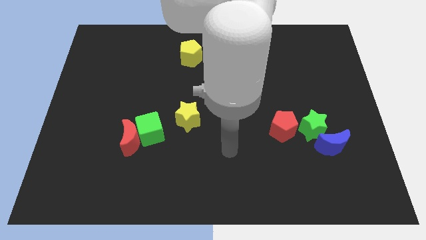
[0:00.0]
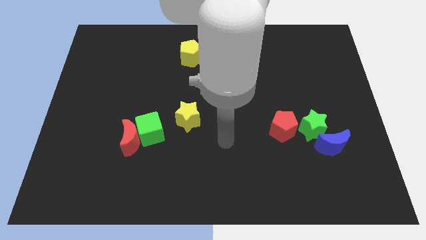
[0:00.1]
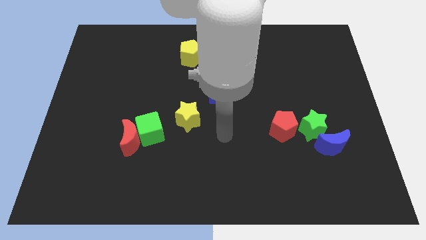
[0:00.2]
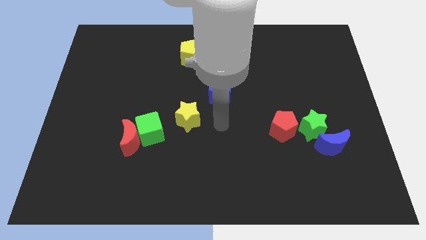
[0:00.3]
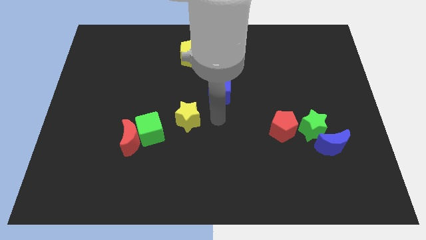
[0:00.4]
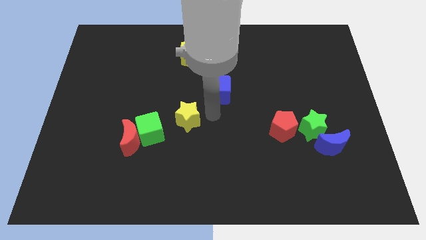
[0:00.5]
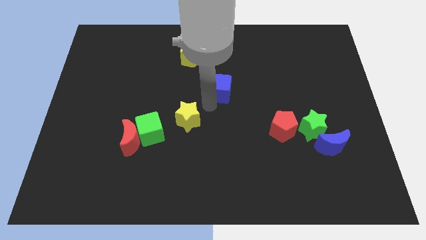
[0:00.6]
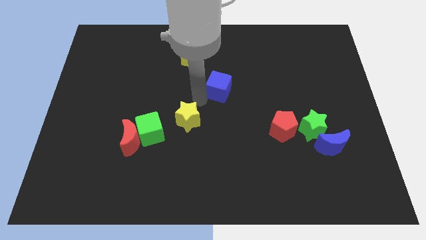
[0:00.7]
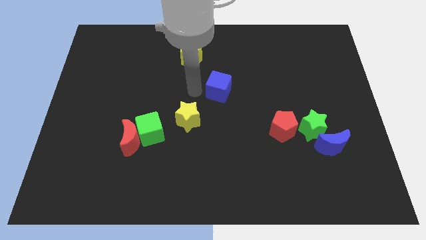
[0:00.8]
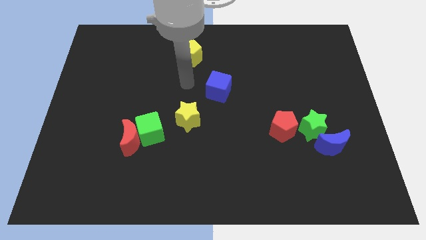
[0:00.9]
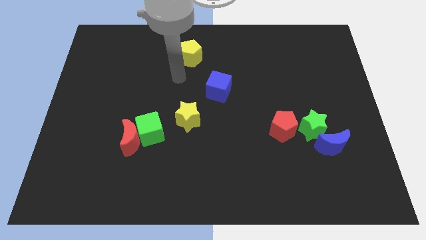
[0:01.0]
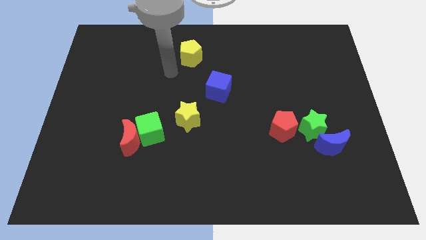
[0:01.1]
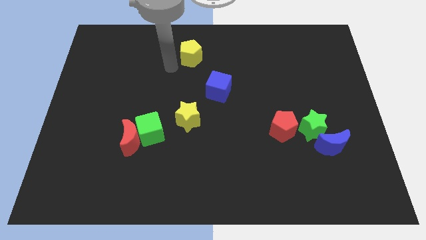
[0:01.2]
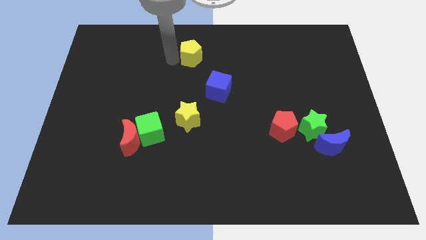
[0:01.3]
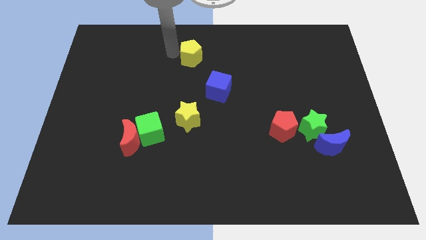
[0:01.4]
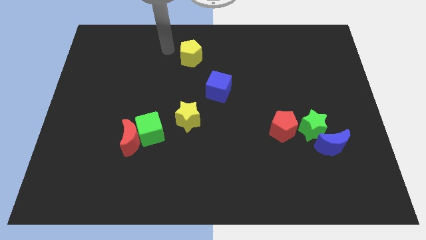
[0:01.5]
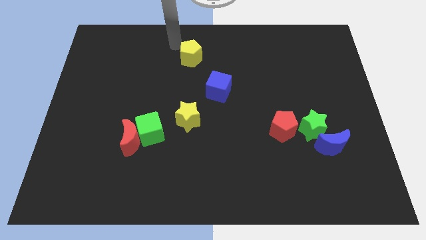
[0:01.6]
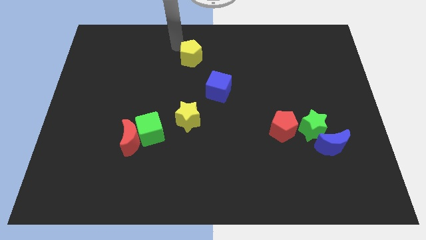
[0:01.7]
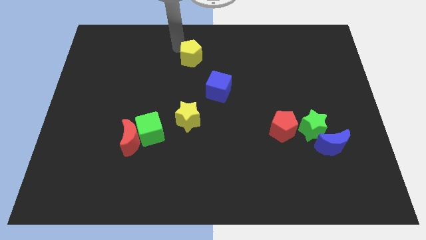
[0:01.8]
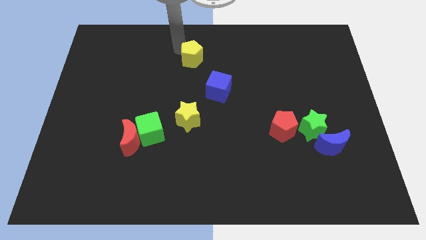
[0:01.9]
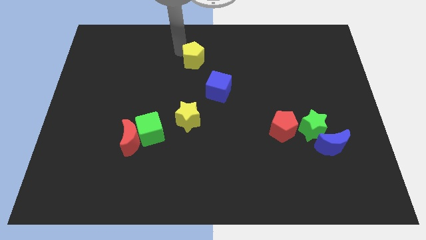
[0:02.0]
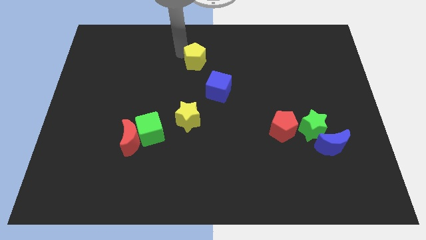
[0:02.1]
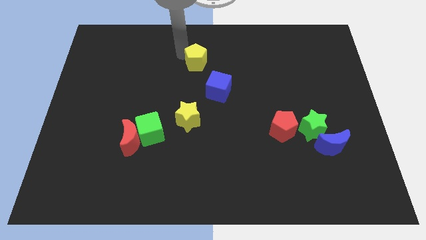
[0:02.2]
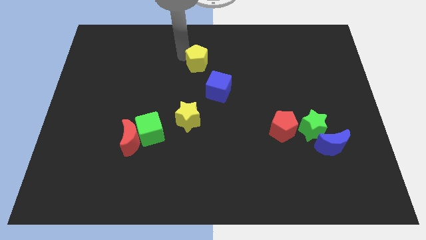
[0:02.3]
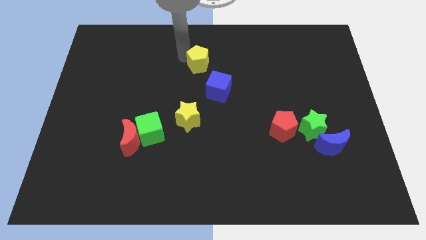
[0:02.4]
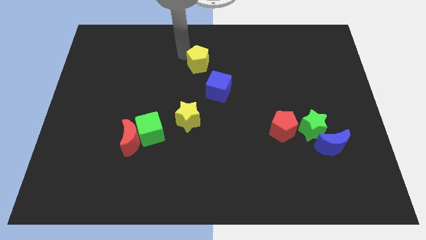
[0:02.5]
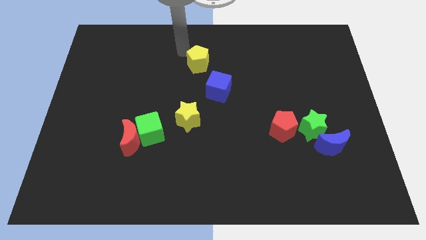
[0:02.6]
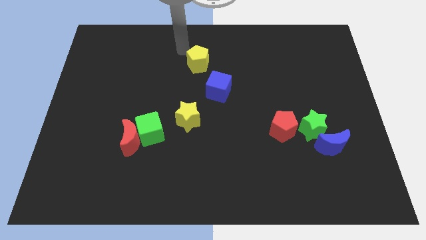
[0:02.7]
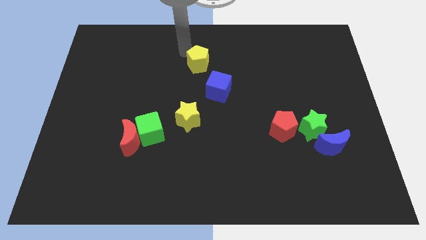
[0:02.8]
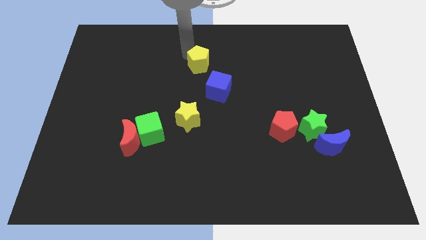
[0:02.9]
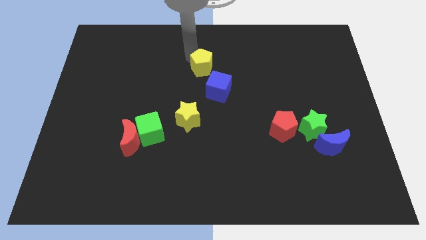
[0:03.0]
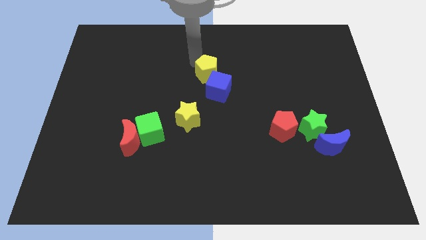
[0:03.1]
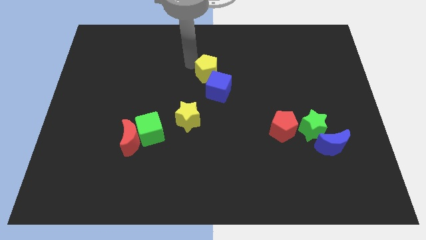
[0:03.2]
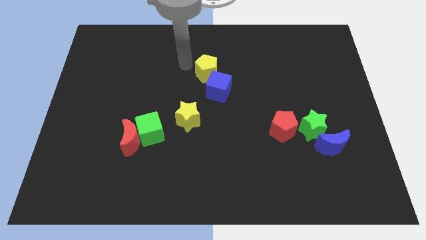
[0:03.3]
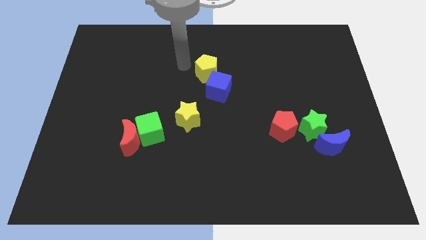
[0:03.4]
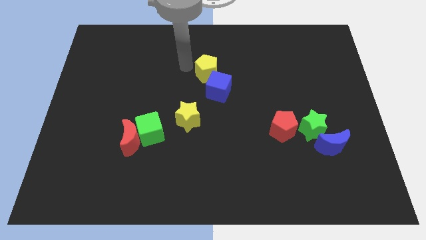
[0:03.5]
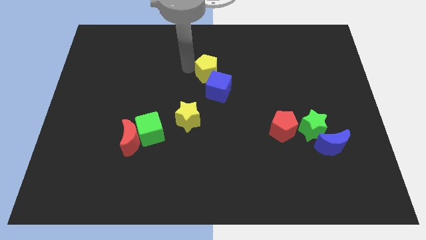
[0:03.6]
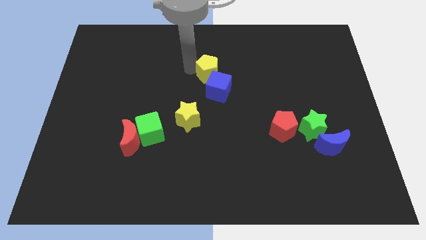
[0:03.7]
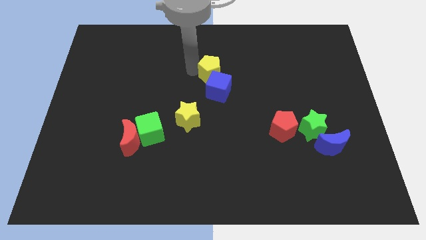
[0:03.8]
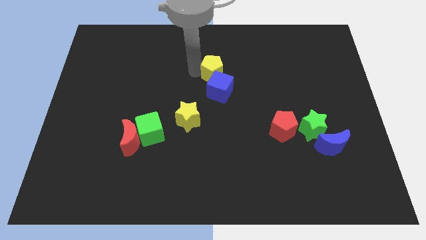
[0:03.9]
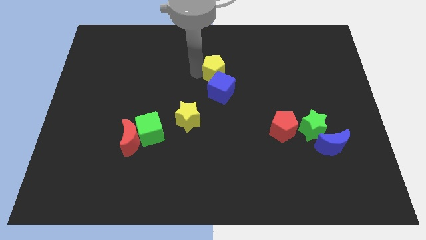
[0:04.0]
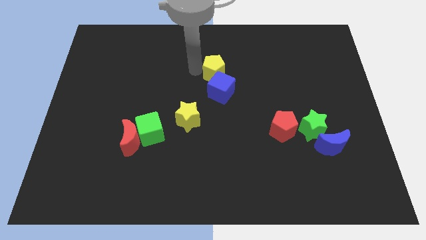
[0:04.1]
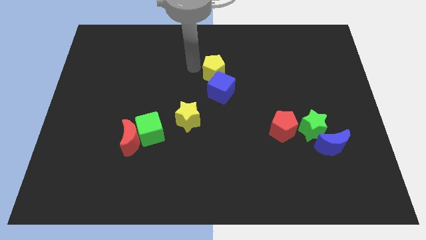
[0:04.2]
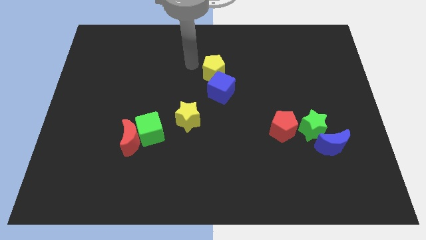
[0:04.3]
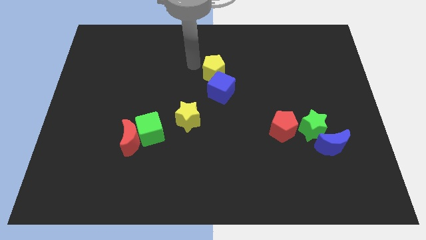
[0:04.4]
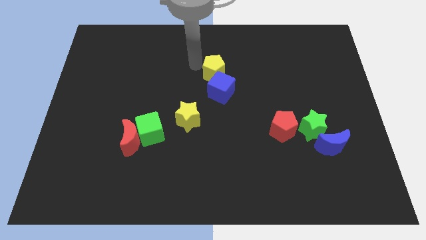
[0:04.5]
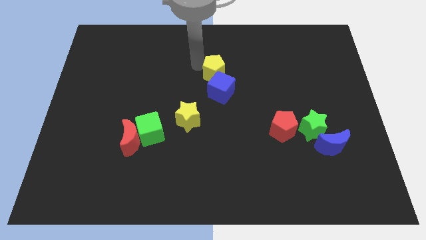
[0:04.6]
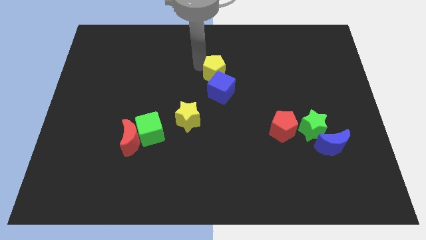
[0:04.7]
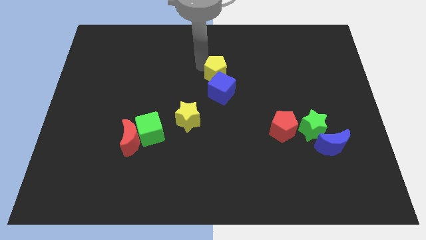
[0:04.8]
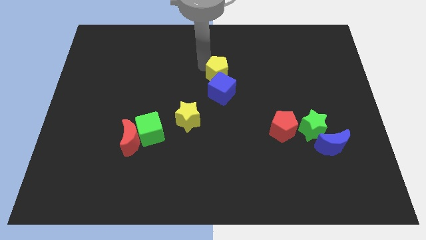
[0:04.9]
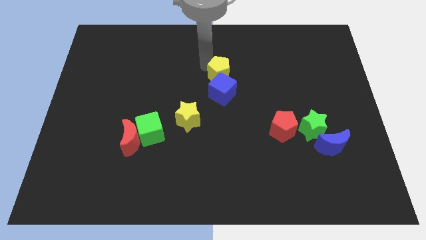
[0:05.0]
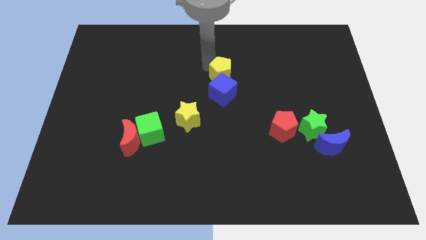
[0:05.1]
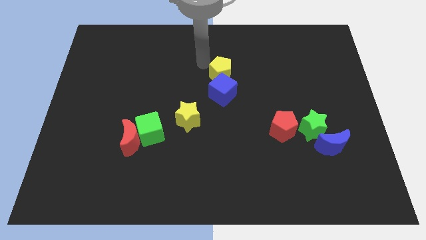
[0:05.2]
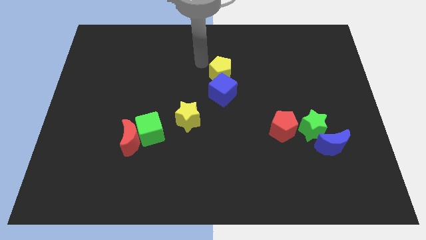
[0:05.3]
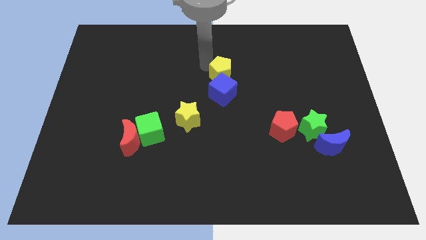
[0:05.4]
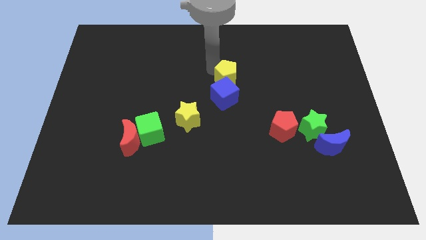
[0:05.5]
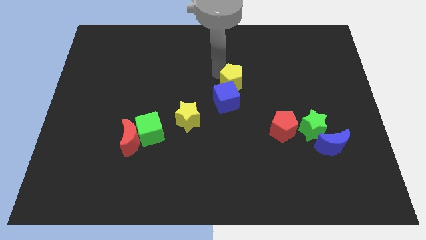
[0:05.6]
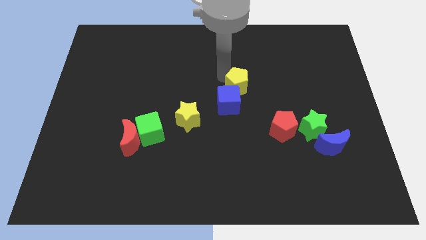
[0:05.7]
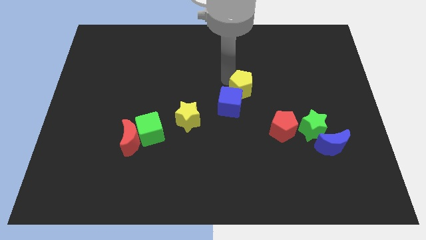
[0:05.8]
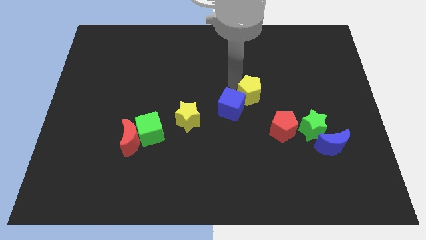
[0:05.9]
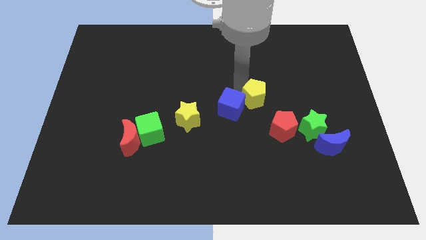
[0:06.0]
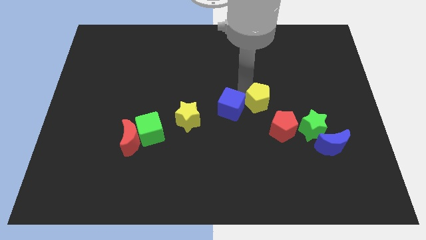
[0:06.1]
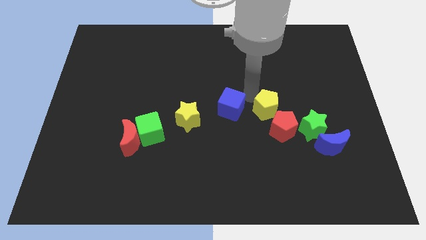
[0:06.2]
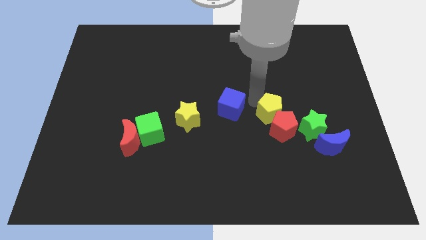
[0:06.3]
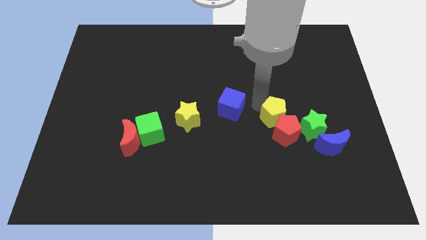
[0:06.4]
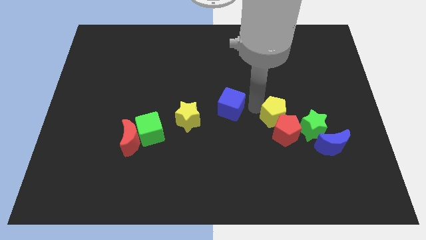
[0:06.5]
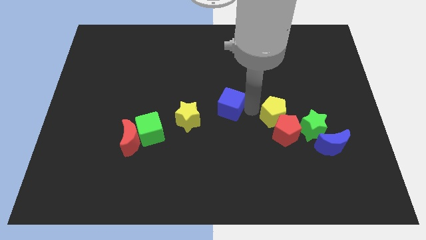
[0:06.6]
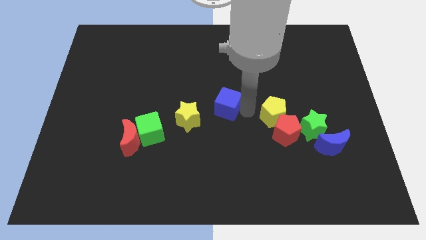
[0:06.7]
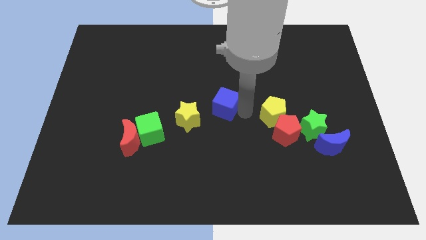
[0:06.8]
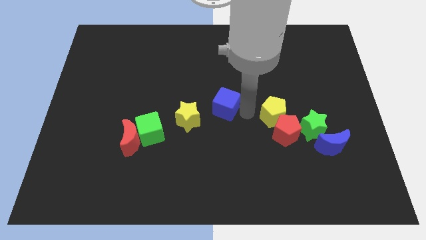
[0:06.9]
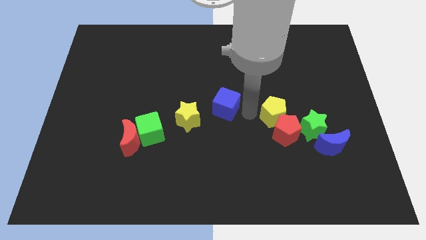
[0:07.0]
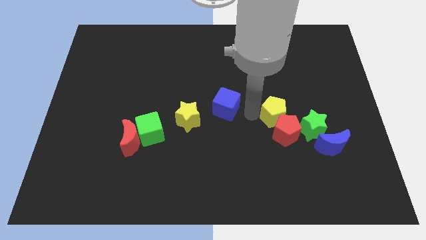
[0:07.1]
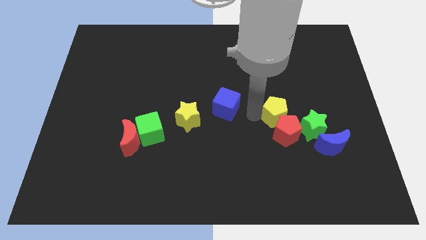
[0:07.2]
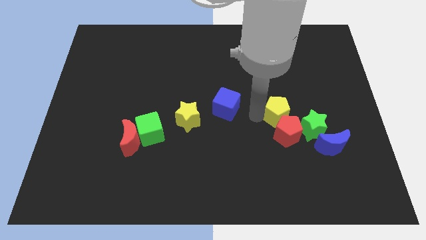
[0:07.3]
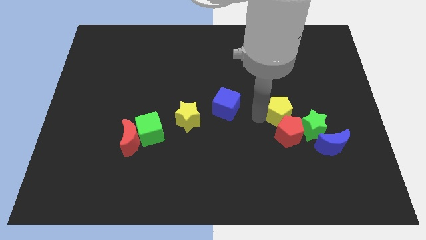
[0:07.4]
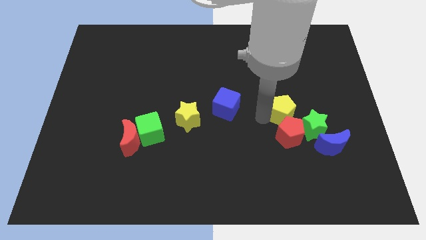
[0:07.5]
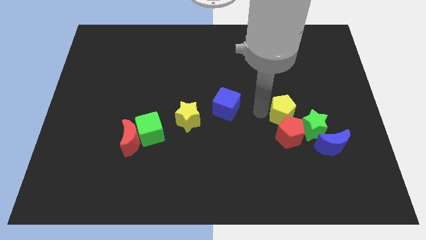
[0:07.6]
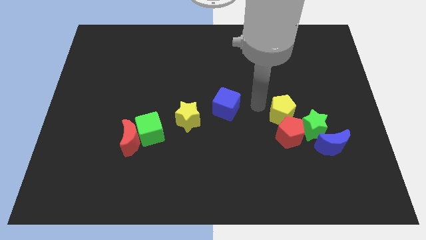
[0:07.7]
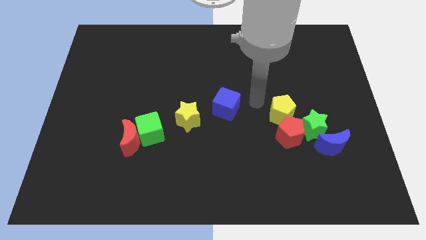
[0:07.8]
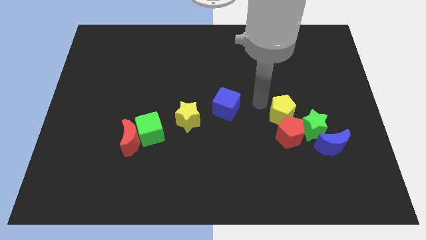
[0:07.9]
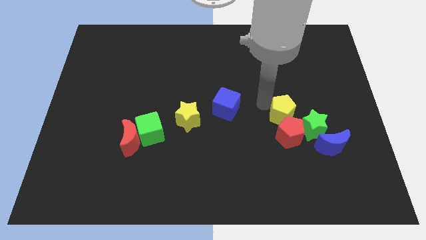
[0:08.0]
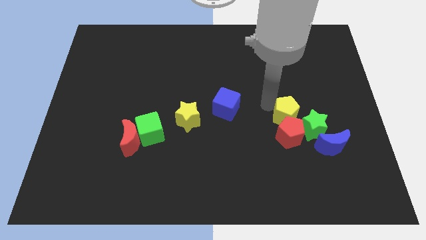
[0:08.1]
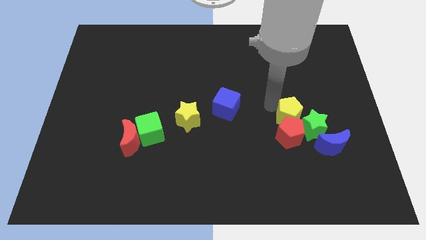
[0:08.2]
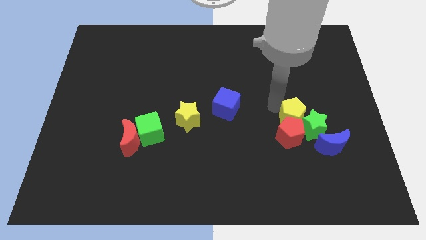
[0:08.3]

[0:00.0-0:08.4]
move the yellow pentagon close to the green star
